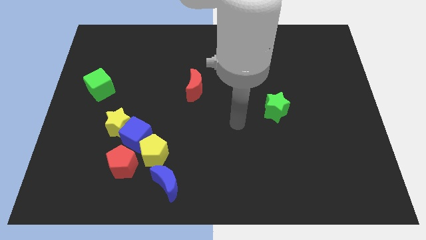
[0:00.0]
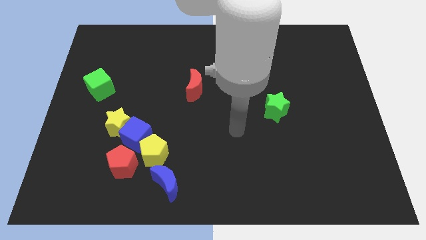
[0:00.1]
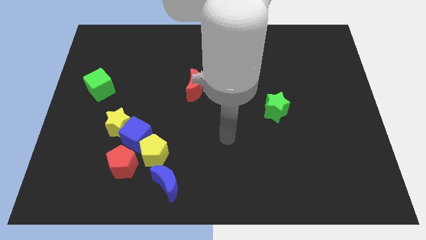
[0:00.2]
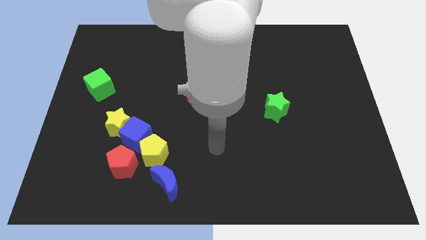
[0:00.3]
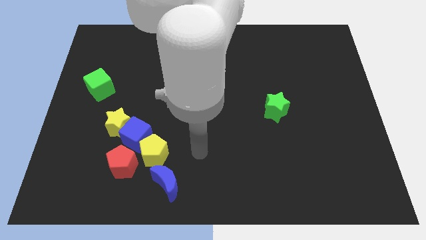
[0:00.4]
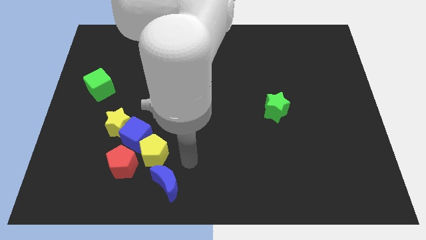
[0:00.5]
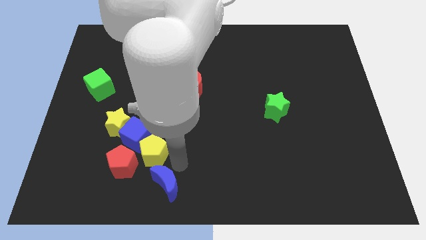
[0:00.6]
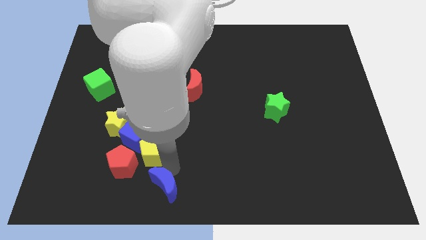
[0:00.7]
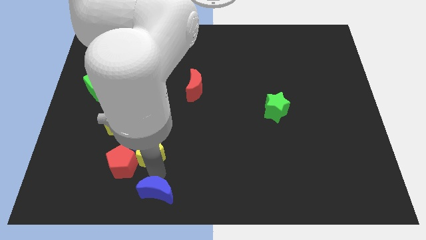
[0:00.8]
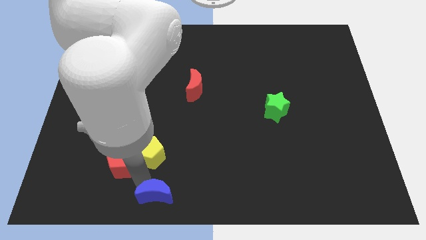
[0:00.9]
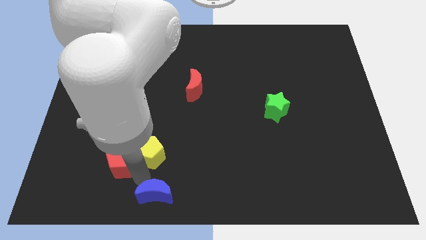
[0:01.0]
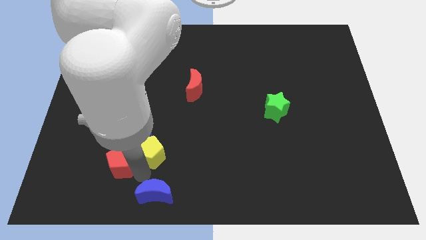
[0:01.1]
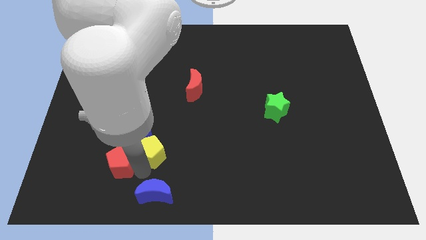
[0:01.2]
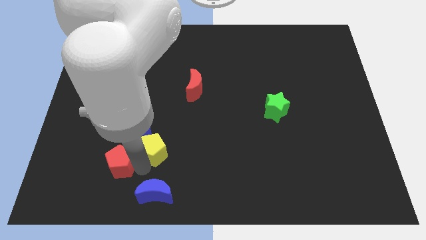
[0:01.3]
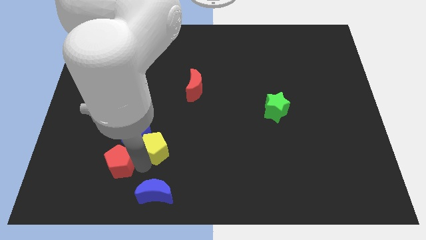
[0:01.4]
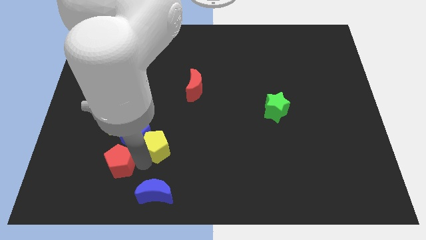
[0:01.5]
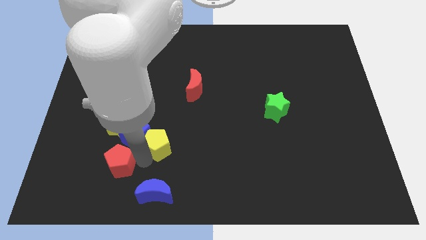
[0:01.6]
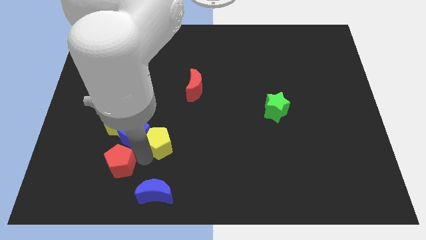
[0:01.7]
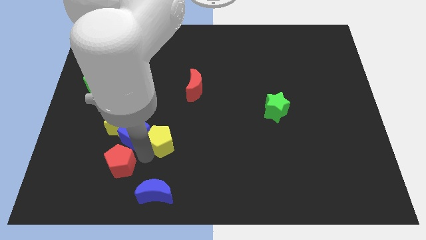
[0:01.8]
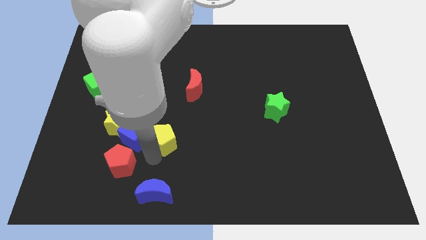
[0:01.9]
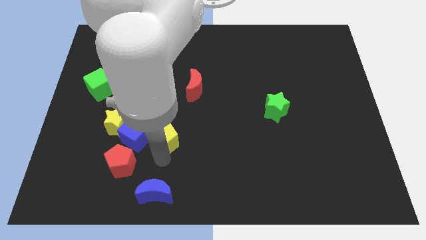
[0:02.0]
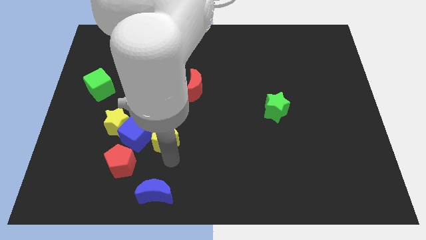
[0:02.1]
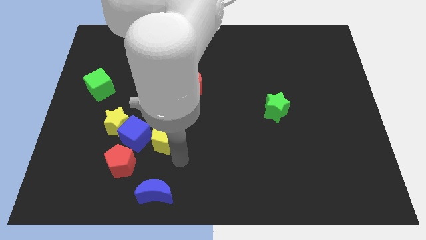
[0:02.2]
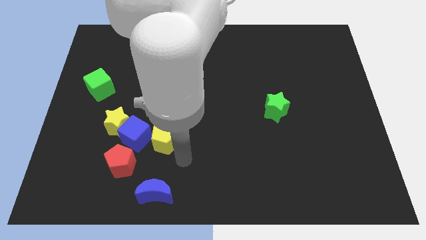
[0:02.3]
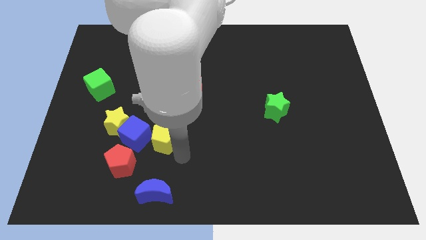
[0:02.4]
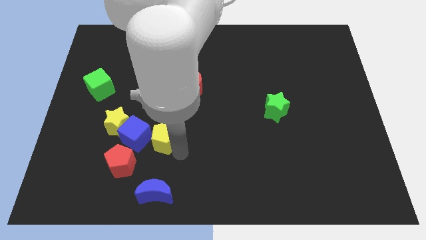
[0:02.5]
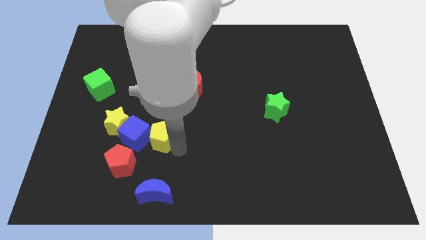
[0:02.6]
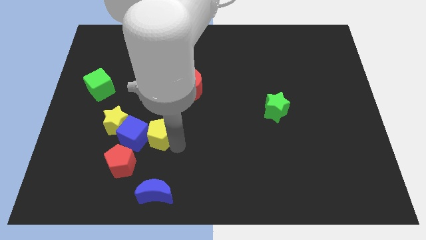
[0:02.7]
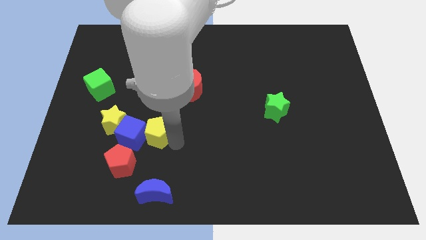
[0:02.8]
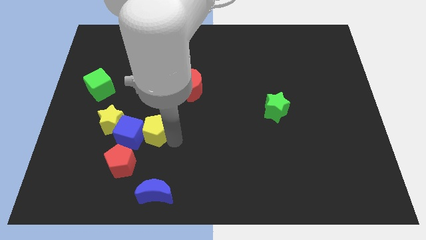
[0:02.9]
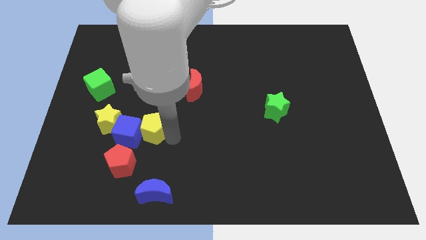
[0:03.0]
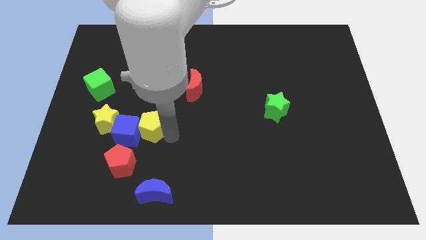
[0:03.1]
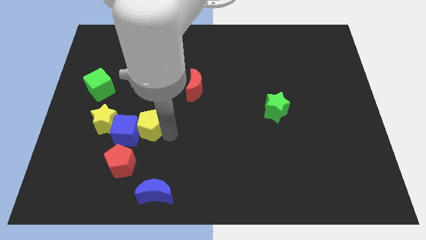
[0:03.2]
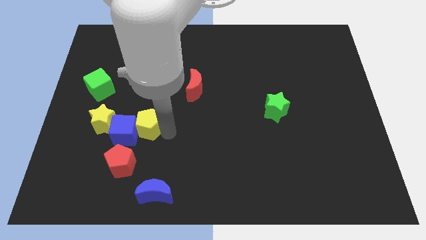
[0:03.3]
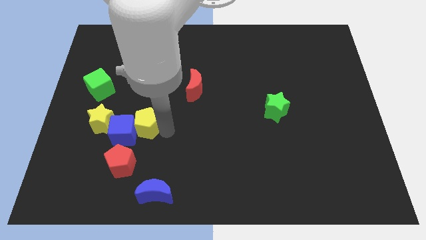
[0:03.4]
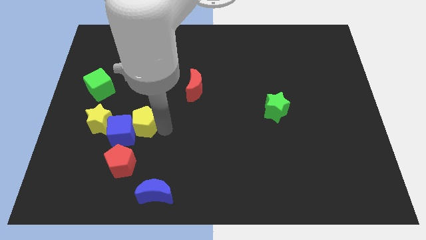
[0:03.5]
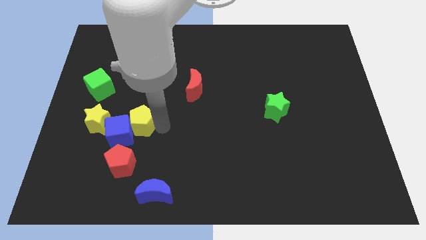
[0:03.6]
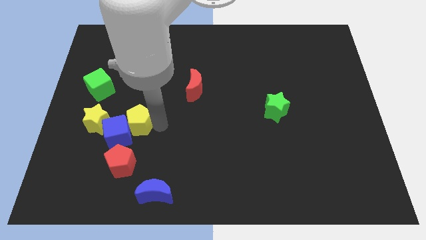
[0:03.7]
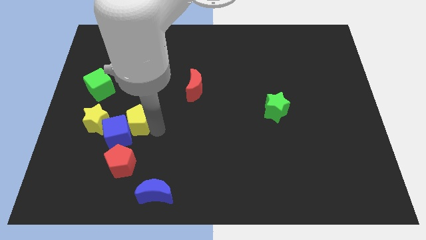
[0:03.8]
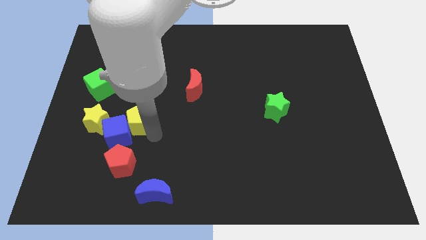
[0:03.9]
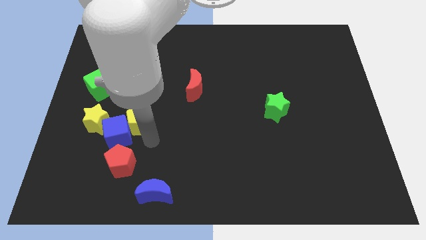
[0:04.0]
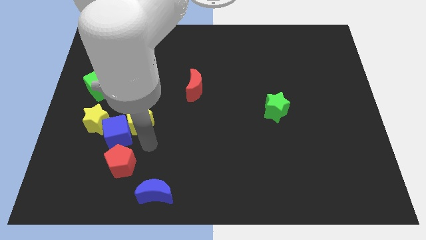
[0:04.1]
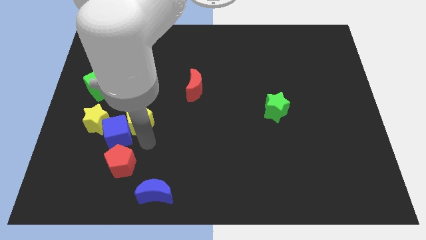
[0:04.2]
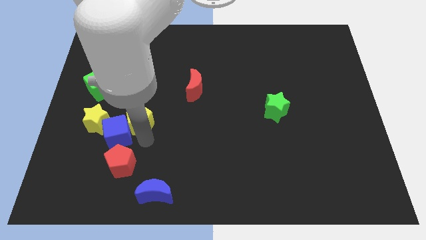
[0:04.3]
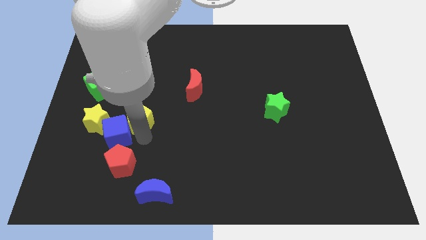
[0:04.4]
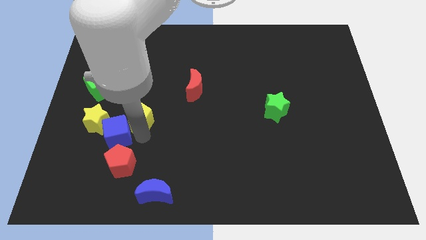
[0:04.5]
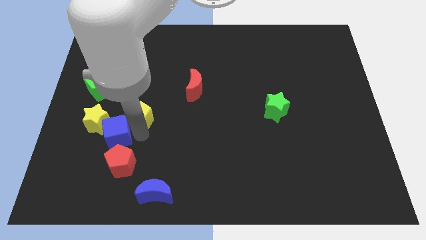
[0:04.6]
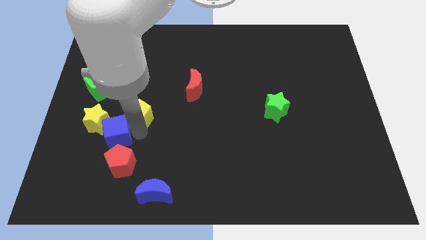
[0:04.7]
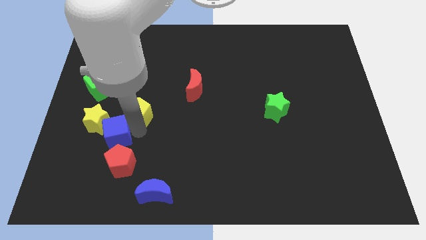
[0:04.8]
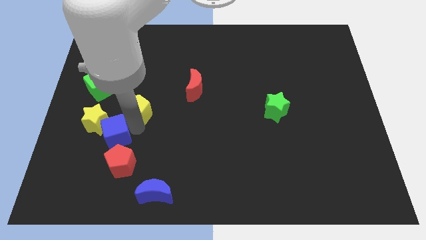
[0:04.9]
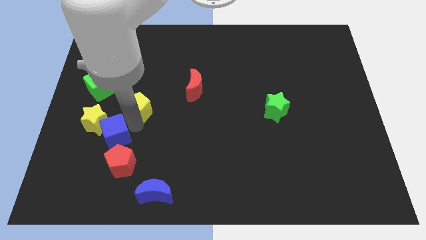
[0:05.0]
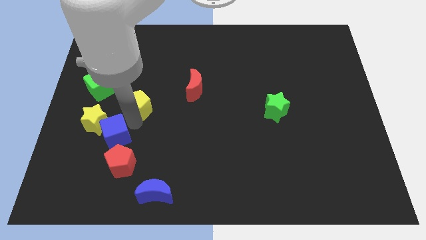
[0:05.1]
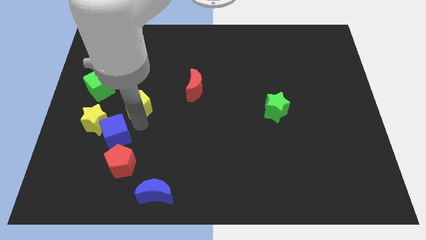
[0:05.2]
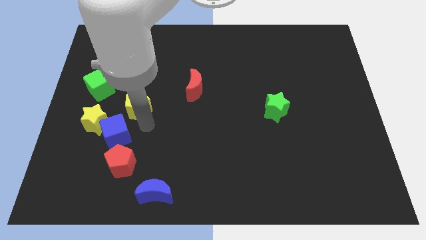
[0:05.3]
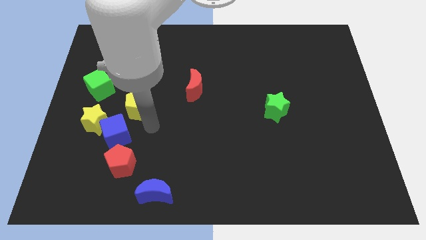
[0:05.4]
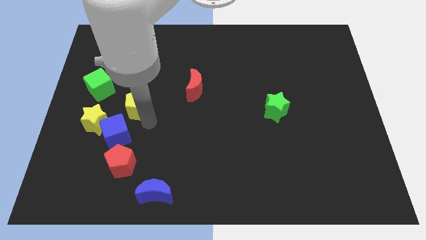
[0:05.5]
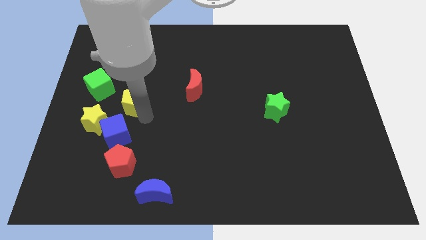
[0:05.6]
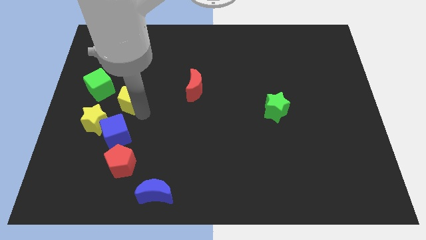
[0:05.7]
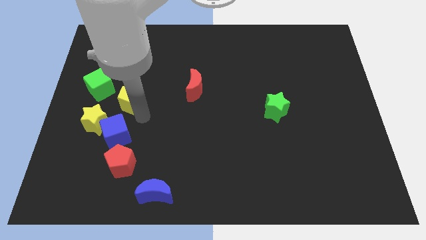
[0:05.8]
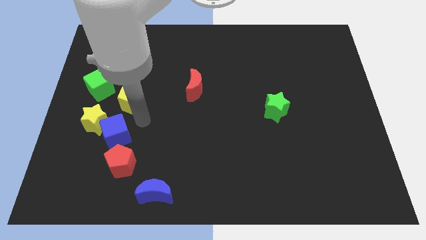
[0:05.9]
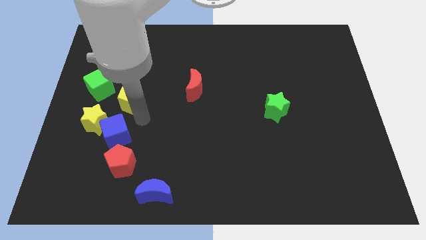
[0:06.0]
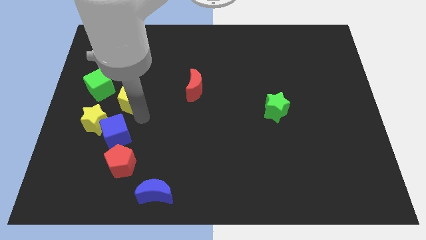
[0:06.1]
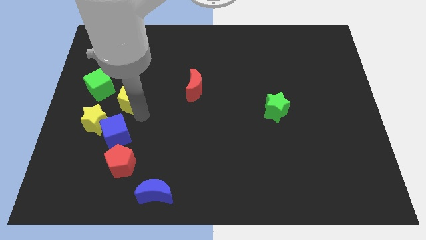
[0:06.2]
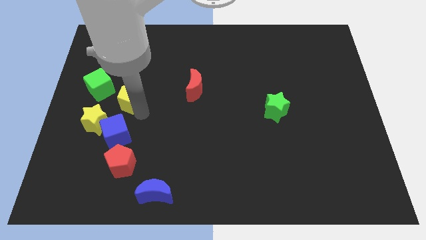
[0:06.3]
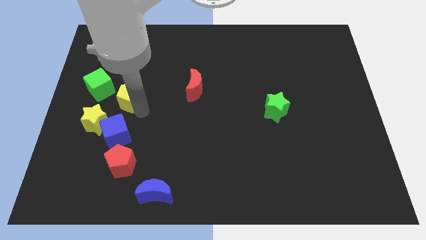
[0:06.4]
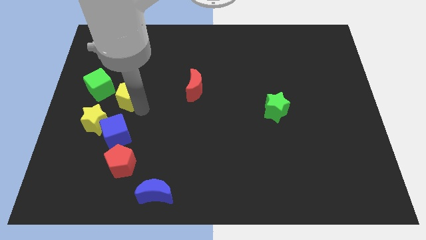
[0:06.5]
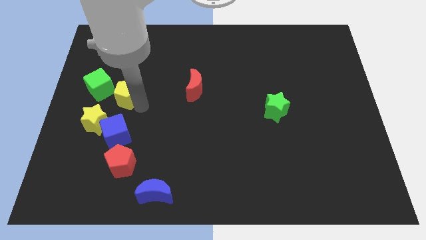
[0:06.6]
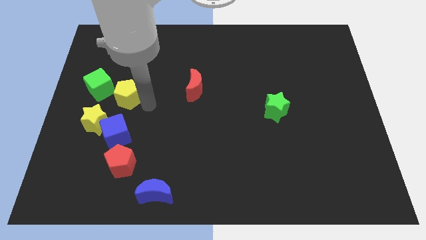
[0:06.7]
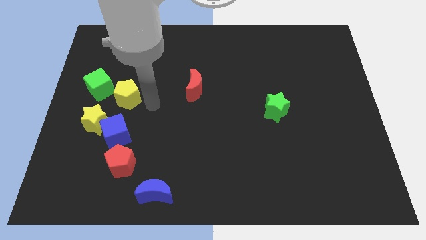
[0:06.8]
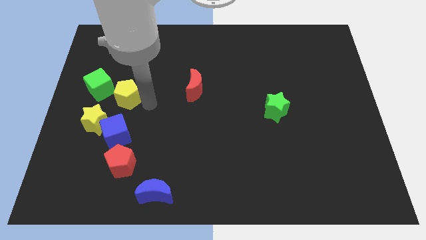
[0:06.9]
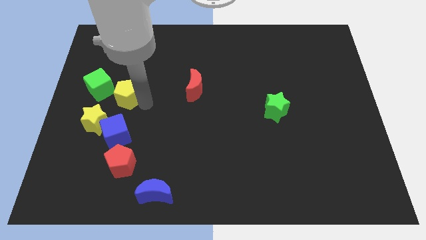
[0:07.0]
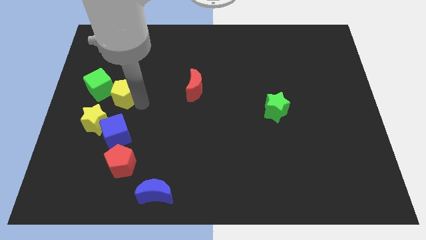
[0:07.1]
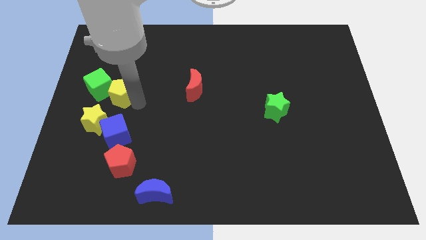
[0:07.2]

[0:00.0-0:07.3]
slide the yellow pentagon towards the green cube

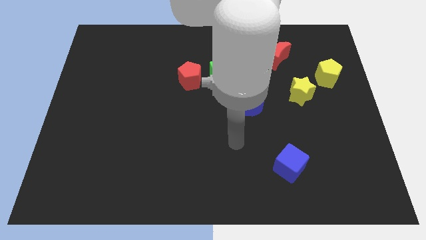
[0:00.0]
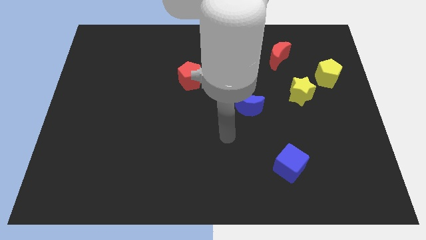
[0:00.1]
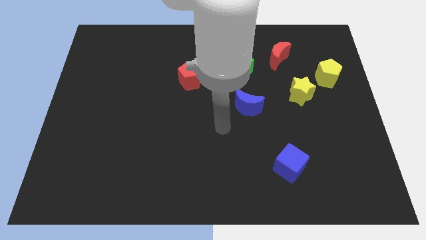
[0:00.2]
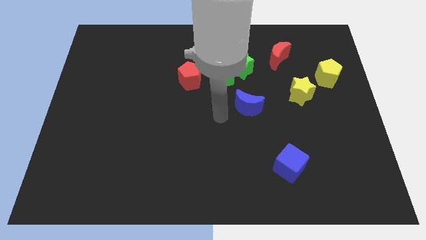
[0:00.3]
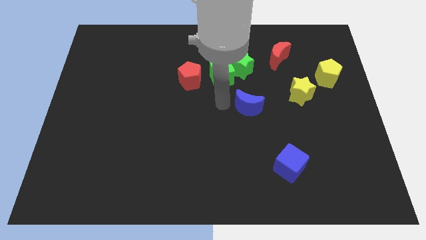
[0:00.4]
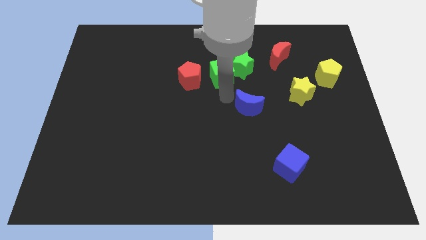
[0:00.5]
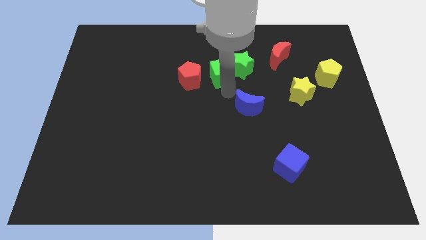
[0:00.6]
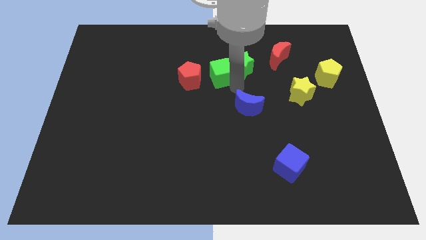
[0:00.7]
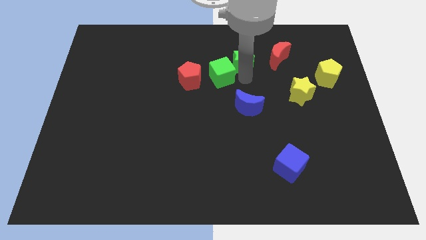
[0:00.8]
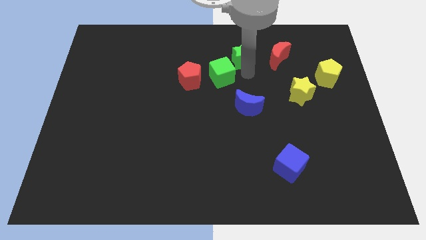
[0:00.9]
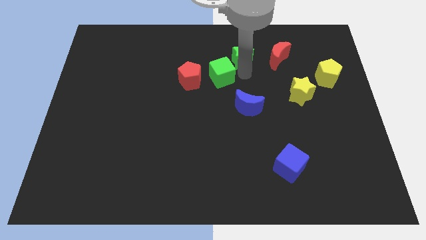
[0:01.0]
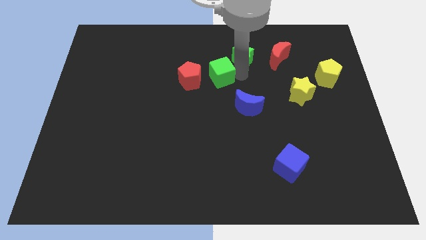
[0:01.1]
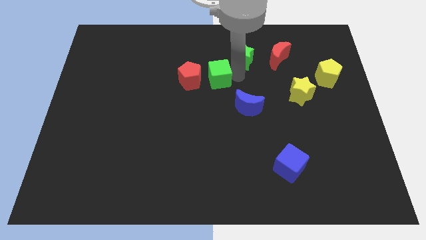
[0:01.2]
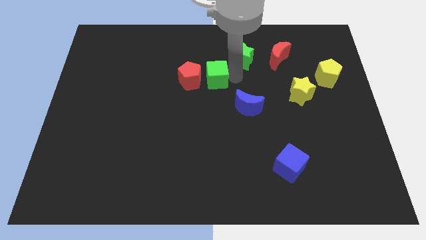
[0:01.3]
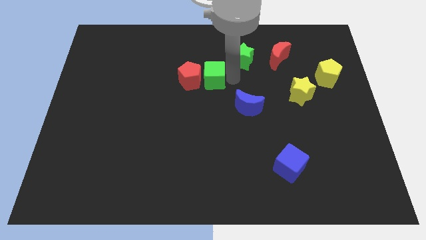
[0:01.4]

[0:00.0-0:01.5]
push the green cube towards the red pentagon
